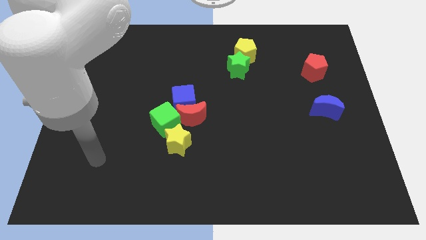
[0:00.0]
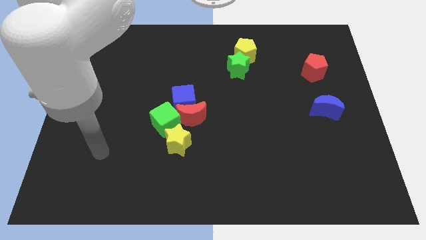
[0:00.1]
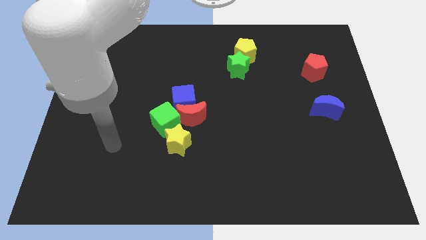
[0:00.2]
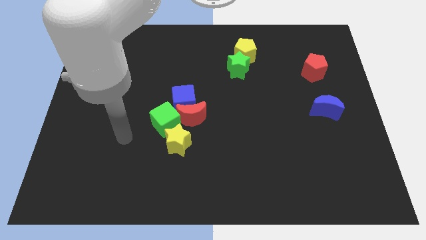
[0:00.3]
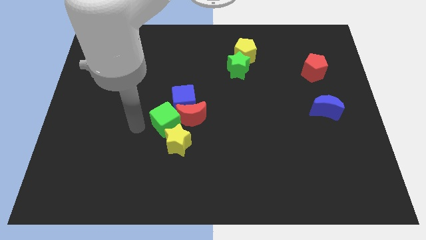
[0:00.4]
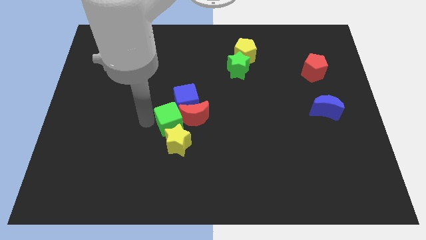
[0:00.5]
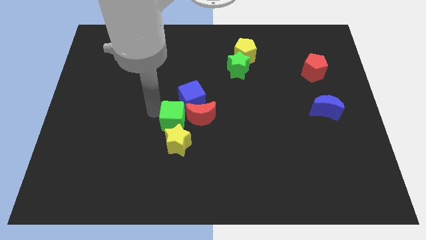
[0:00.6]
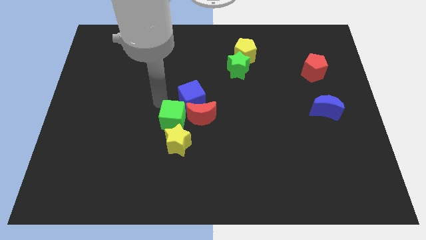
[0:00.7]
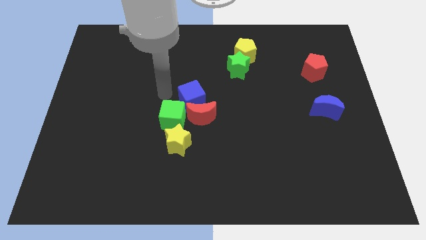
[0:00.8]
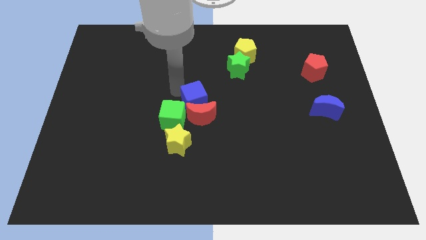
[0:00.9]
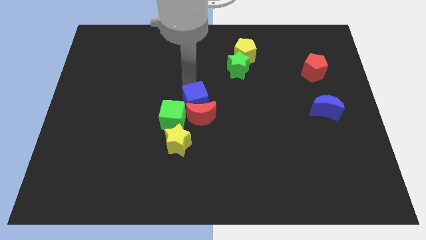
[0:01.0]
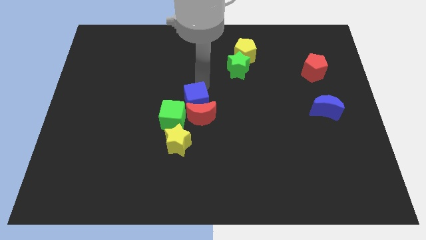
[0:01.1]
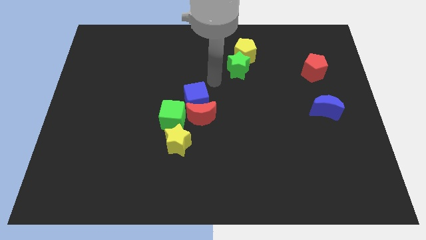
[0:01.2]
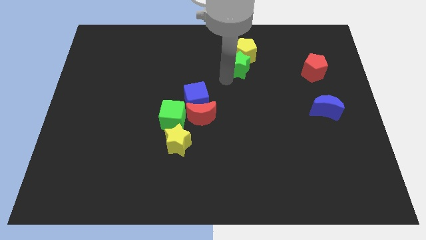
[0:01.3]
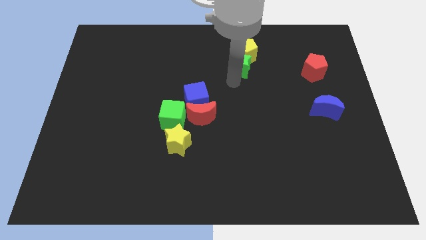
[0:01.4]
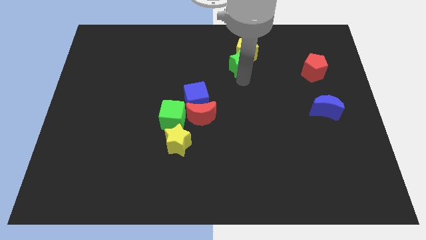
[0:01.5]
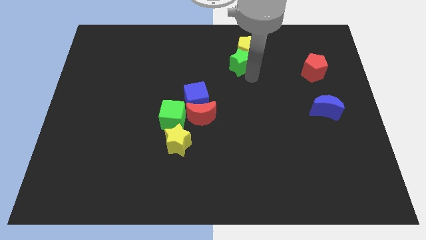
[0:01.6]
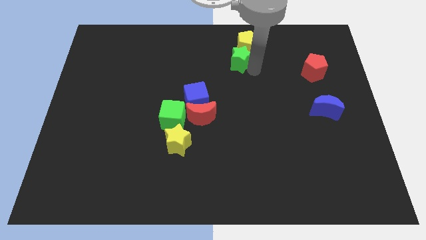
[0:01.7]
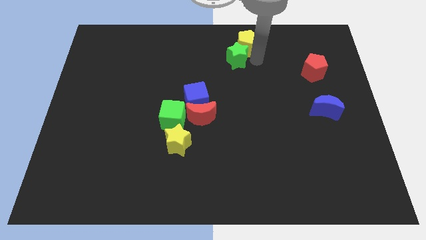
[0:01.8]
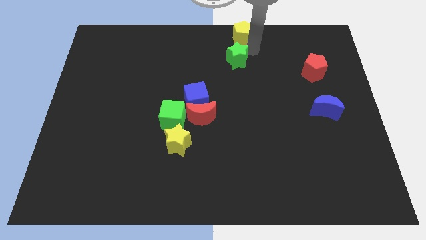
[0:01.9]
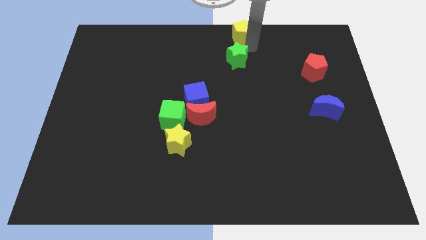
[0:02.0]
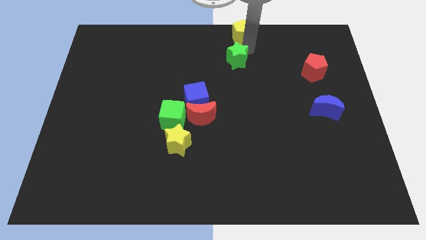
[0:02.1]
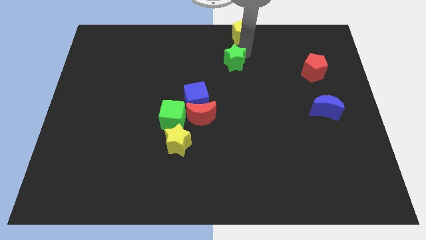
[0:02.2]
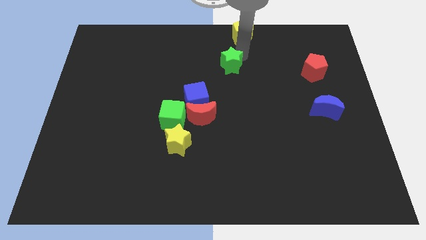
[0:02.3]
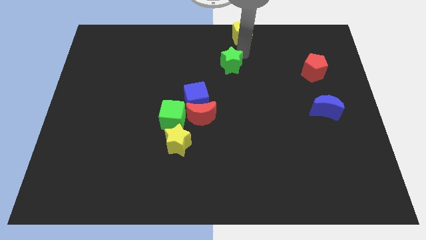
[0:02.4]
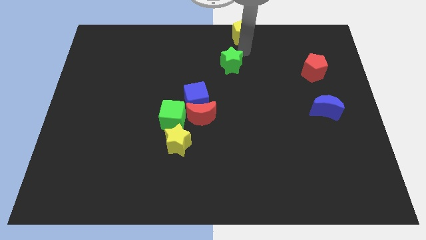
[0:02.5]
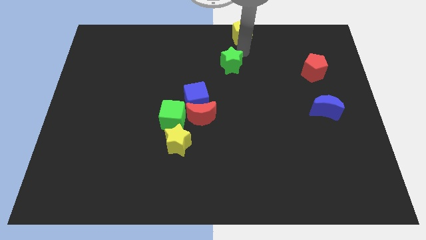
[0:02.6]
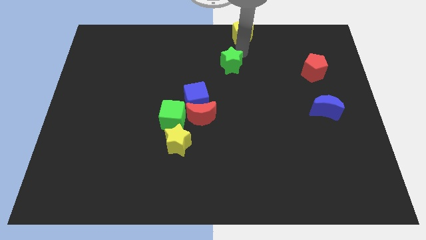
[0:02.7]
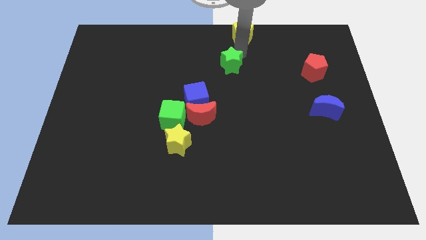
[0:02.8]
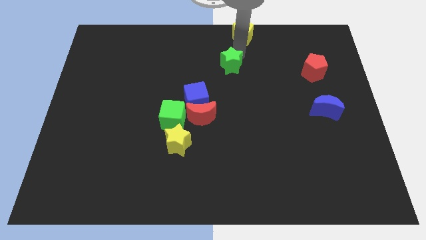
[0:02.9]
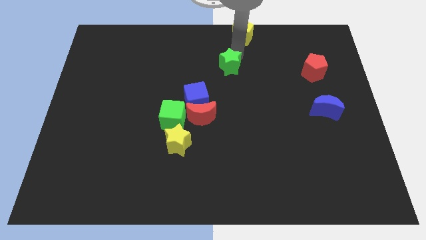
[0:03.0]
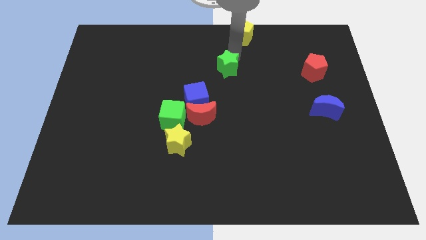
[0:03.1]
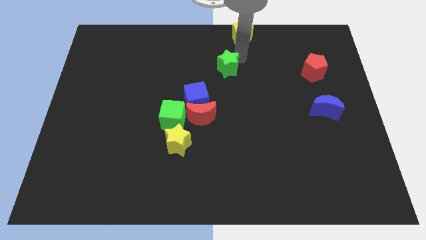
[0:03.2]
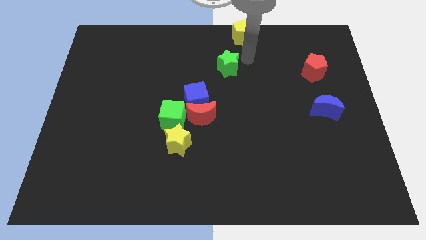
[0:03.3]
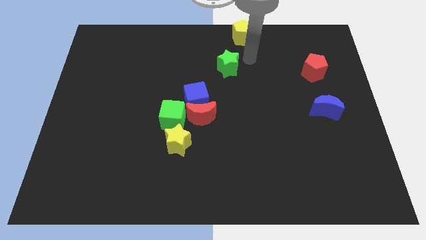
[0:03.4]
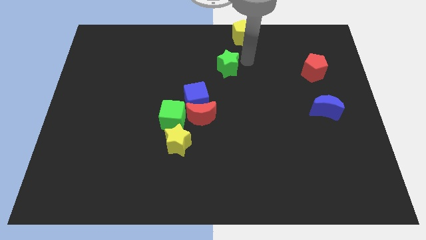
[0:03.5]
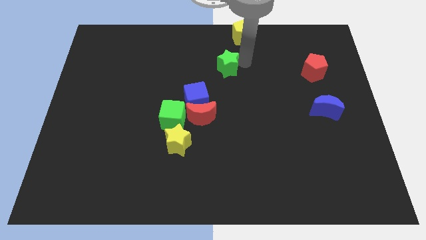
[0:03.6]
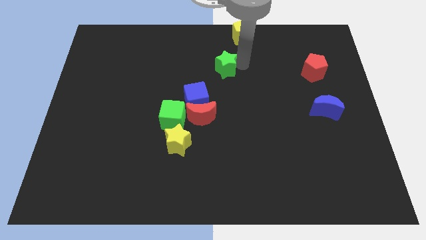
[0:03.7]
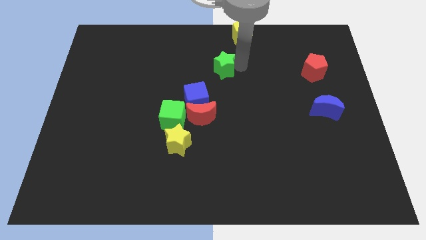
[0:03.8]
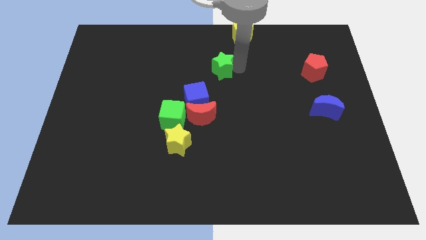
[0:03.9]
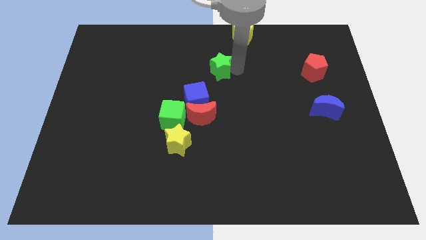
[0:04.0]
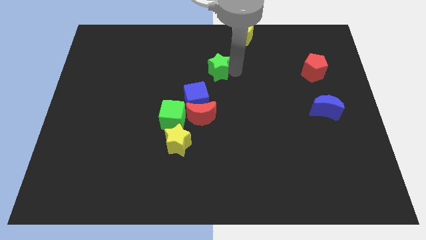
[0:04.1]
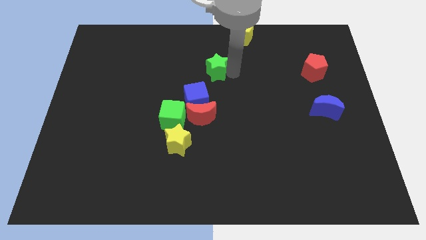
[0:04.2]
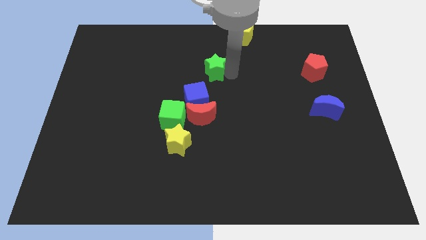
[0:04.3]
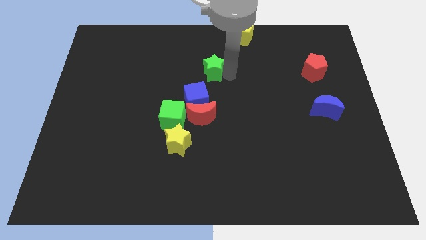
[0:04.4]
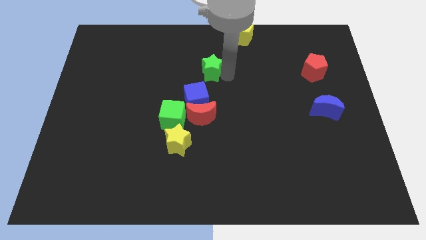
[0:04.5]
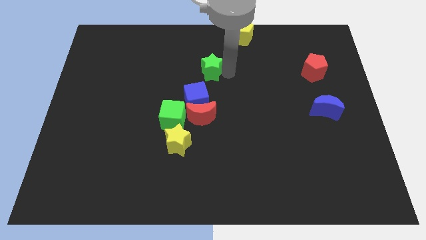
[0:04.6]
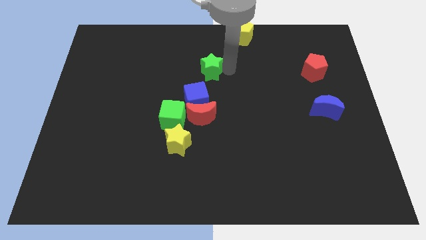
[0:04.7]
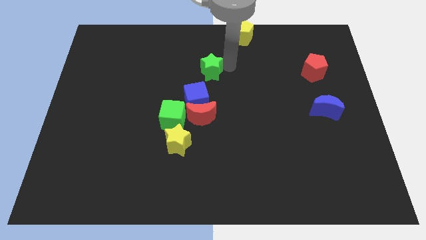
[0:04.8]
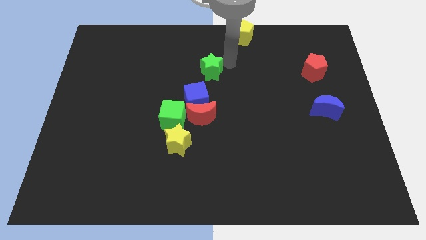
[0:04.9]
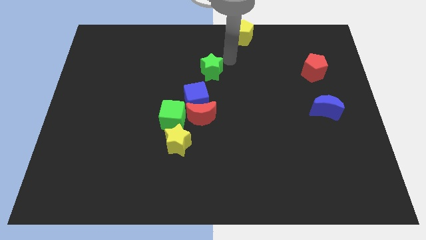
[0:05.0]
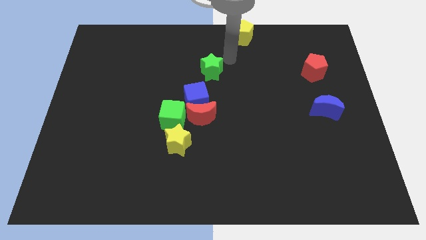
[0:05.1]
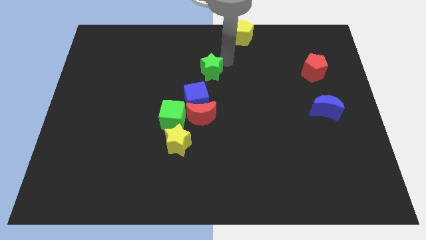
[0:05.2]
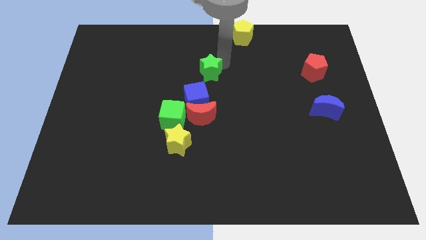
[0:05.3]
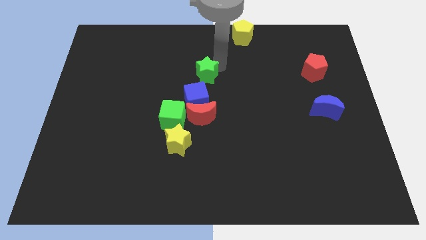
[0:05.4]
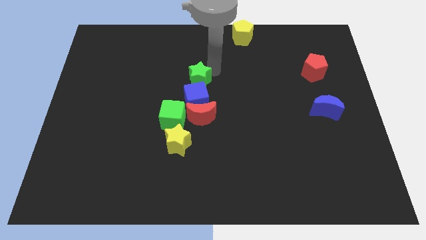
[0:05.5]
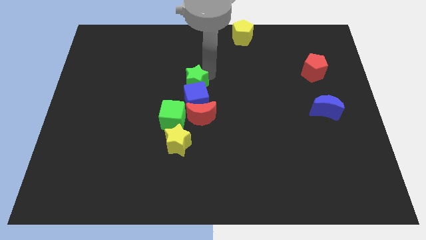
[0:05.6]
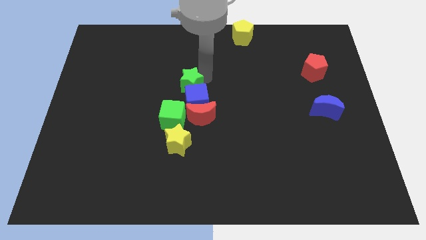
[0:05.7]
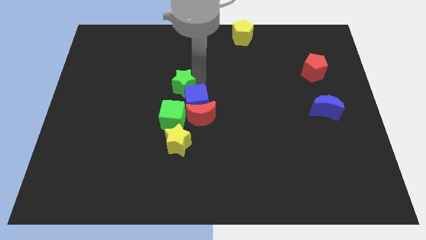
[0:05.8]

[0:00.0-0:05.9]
put the green star to the top of the yellow star
